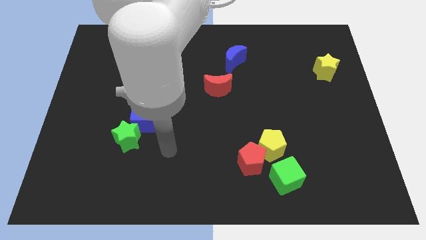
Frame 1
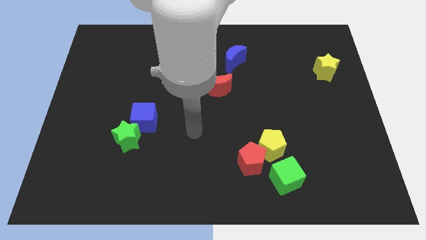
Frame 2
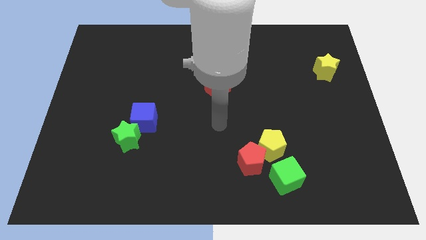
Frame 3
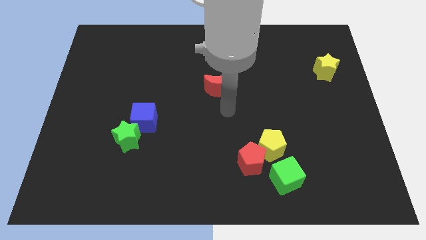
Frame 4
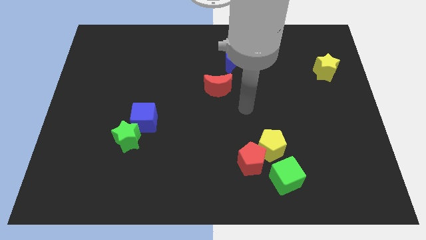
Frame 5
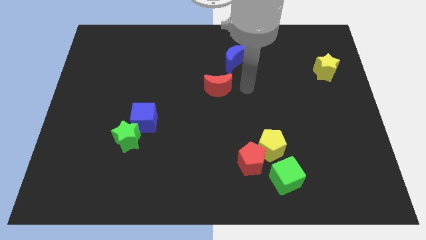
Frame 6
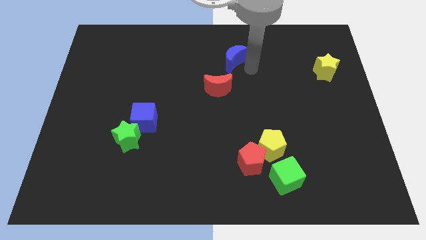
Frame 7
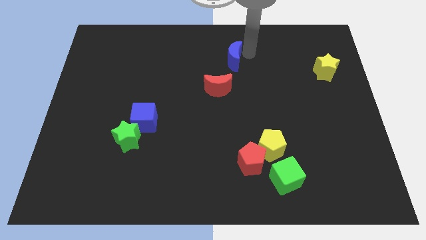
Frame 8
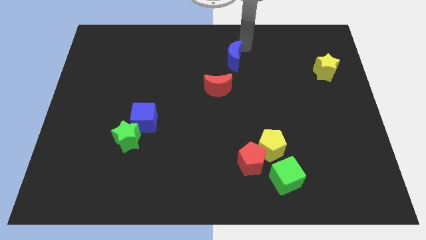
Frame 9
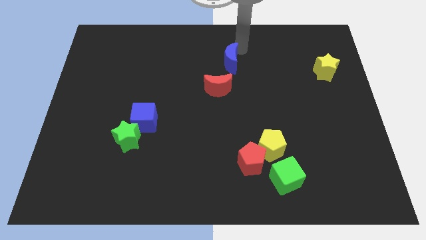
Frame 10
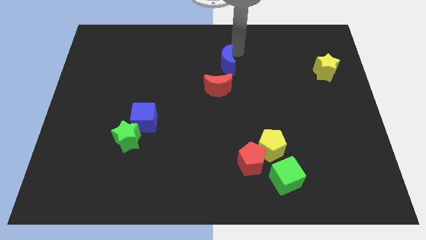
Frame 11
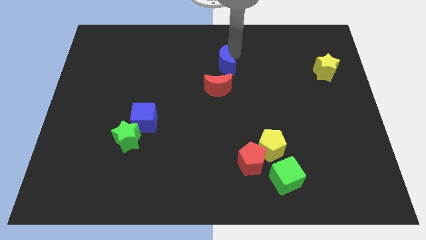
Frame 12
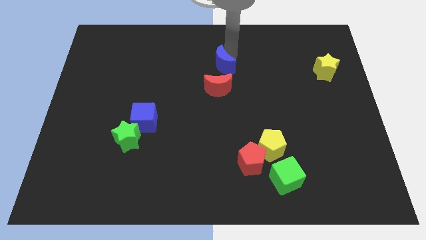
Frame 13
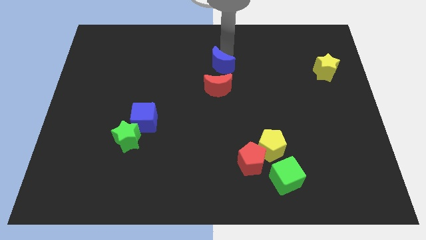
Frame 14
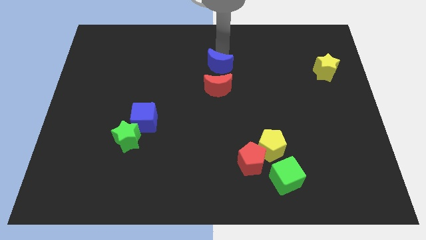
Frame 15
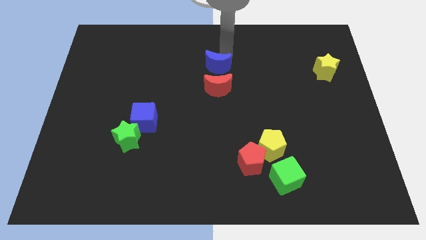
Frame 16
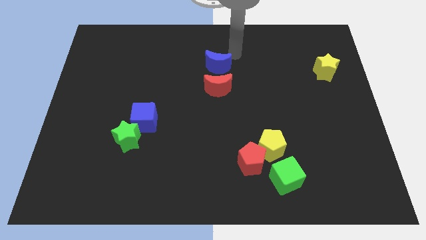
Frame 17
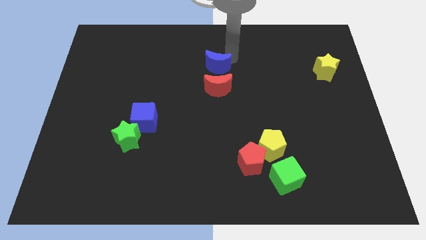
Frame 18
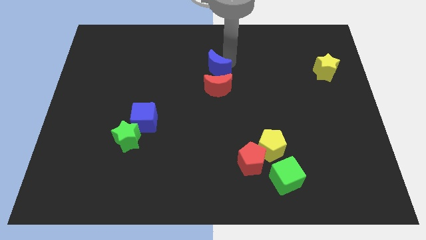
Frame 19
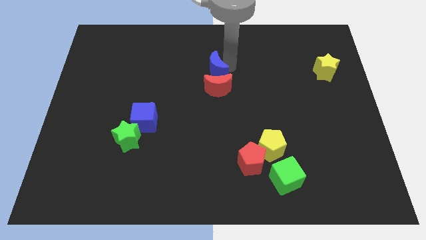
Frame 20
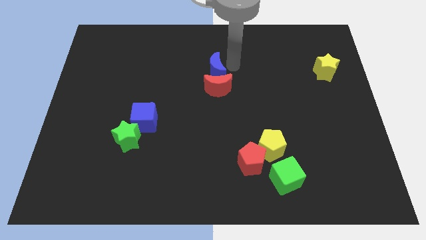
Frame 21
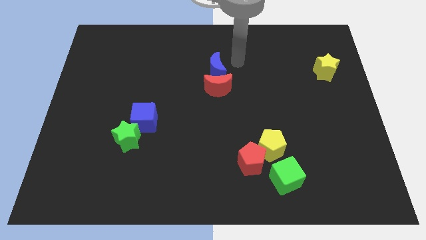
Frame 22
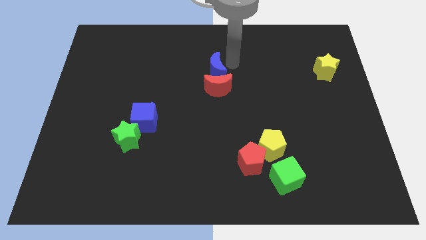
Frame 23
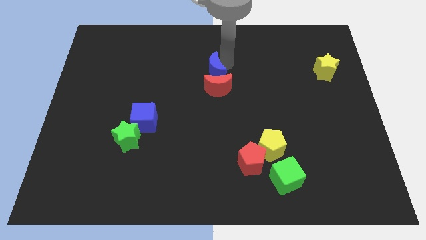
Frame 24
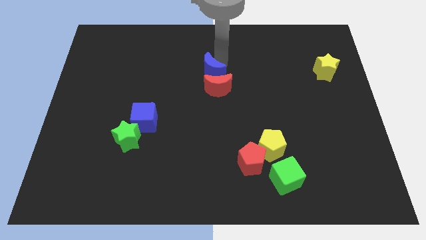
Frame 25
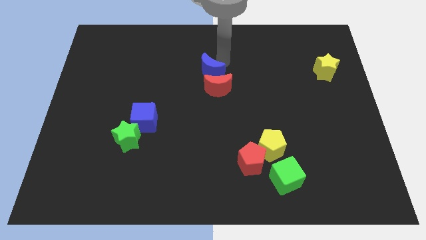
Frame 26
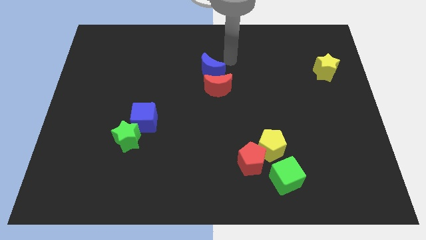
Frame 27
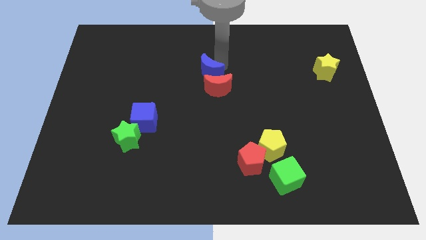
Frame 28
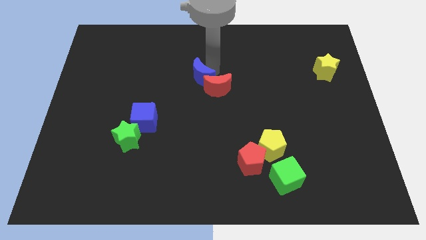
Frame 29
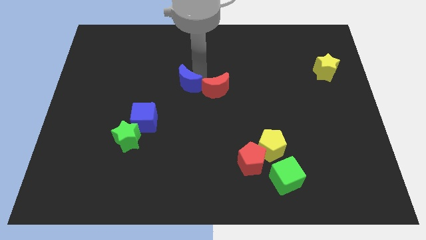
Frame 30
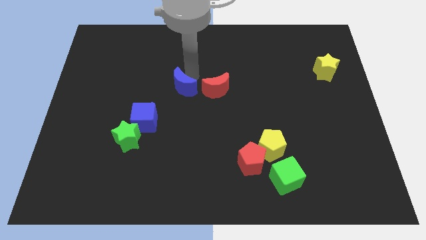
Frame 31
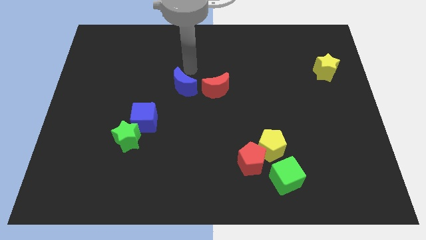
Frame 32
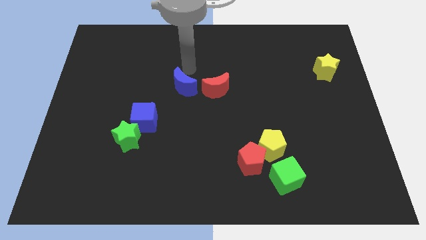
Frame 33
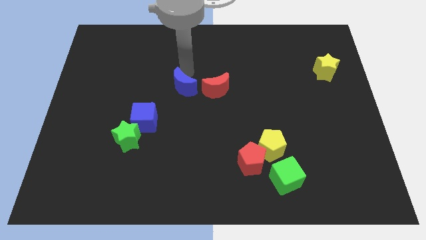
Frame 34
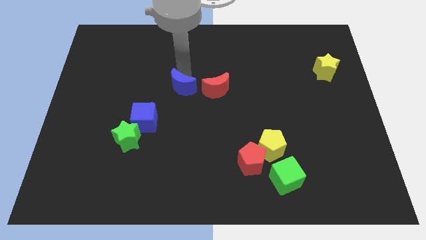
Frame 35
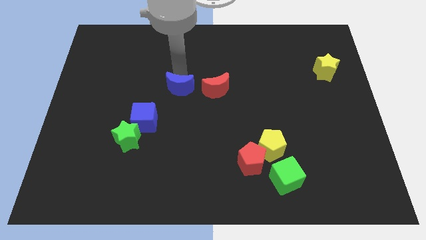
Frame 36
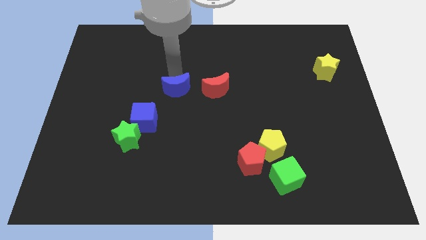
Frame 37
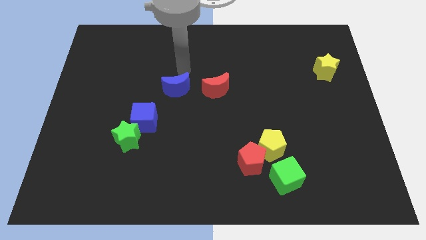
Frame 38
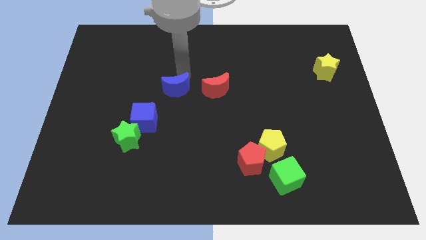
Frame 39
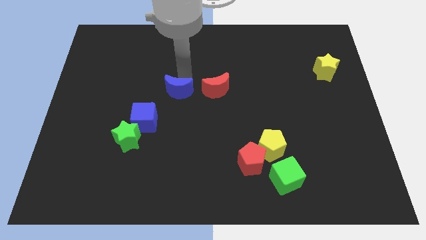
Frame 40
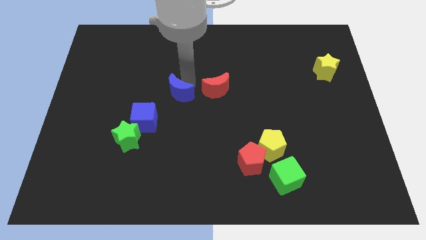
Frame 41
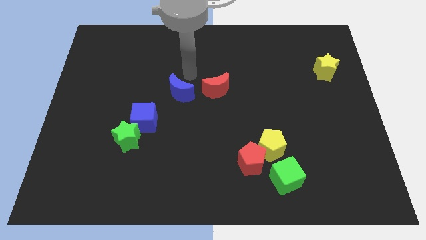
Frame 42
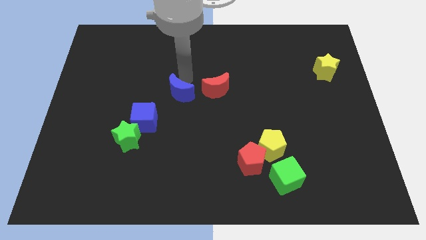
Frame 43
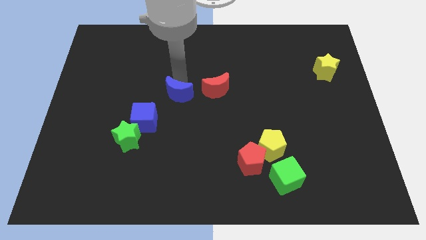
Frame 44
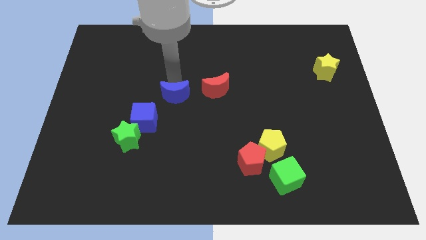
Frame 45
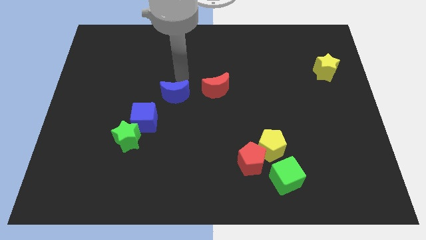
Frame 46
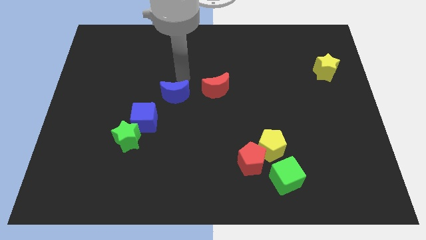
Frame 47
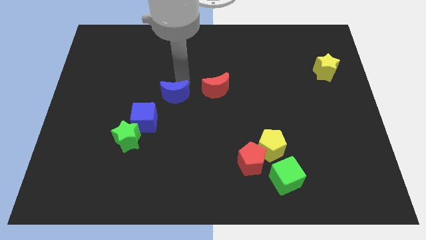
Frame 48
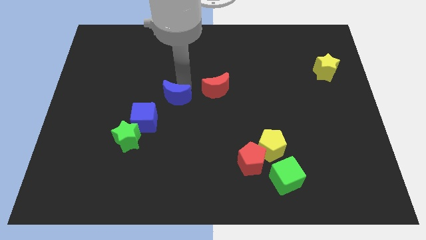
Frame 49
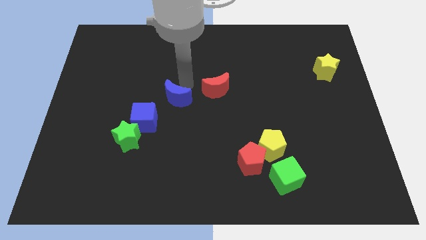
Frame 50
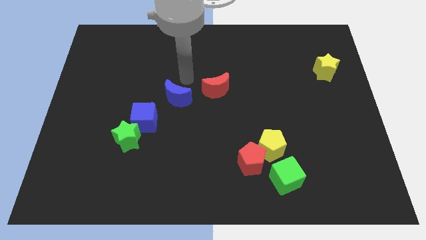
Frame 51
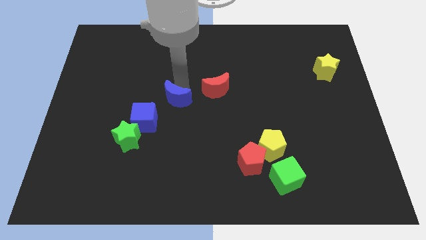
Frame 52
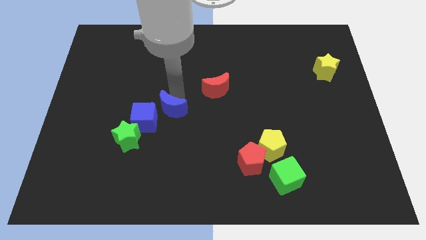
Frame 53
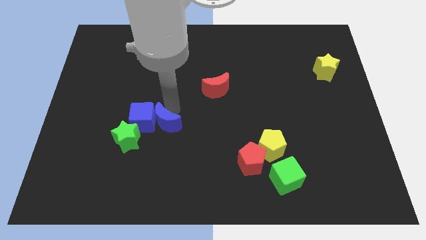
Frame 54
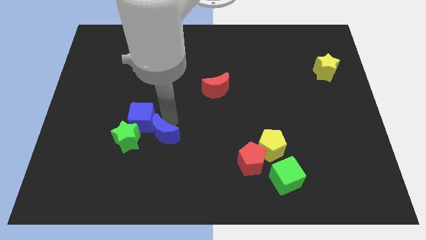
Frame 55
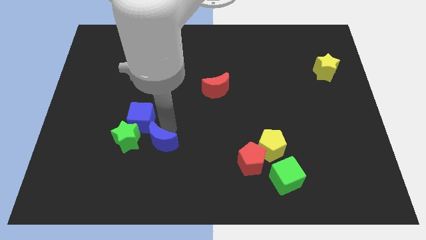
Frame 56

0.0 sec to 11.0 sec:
put the blue moon to the bottom side of the blue cube

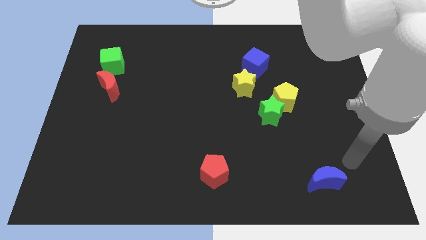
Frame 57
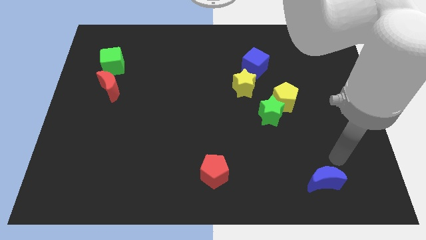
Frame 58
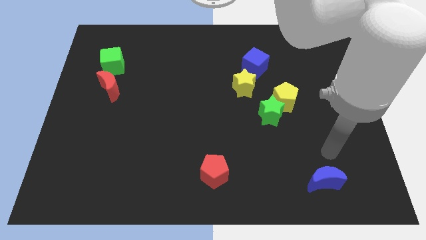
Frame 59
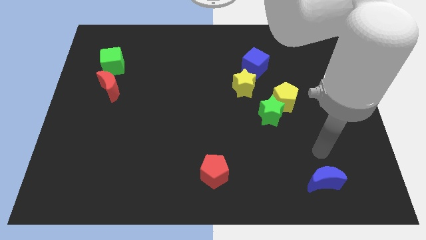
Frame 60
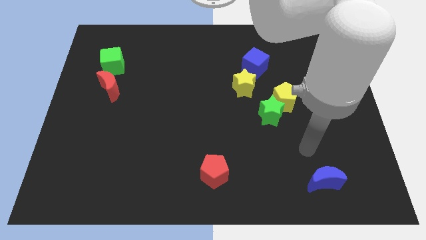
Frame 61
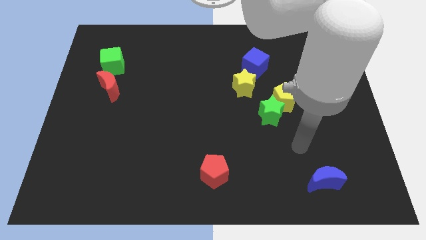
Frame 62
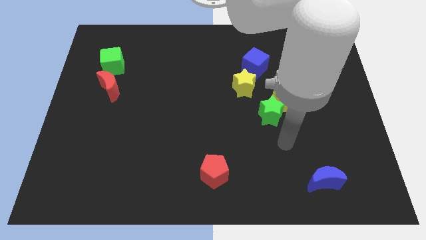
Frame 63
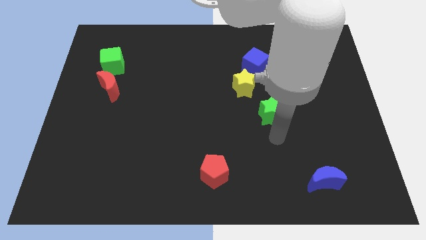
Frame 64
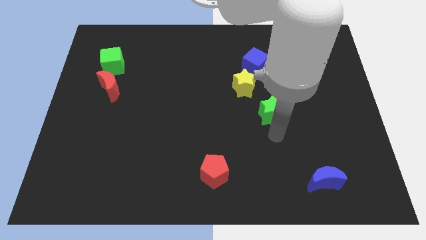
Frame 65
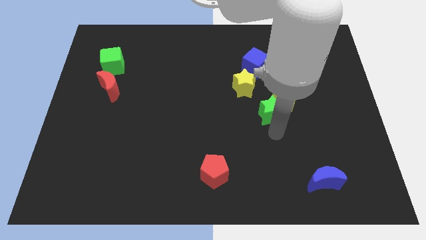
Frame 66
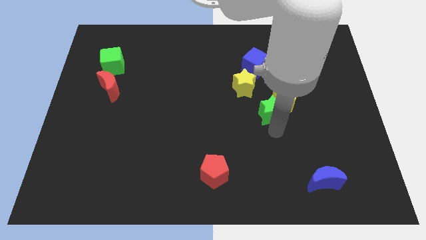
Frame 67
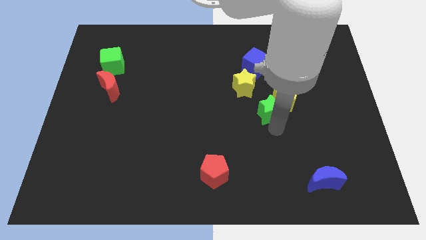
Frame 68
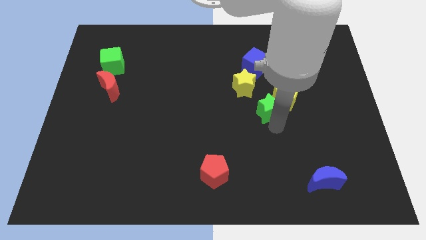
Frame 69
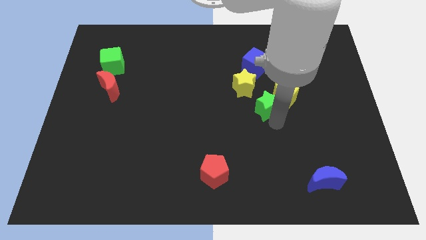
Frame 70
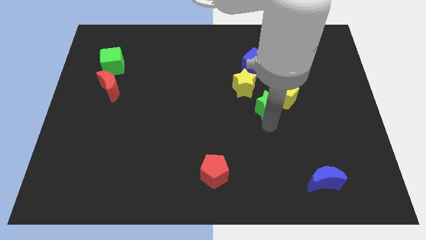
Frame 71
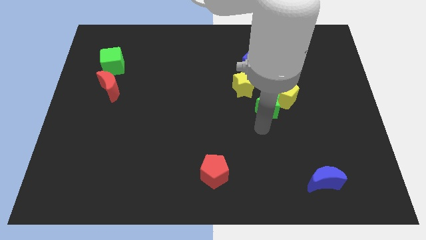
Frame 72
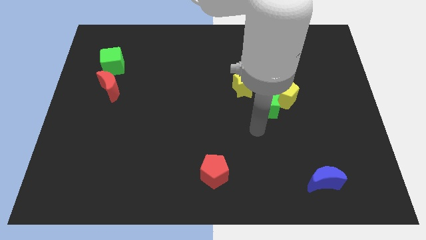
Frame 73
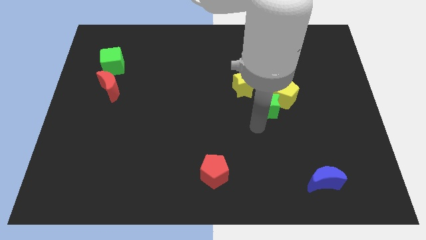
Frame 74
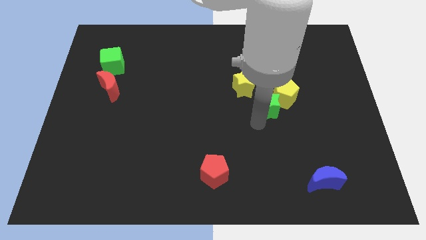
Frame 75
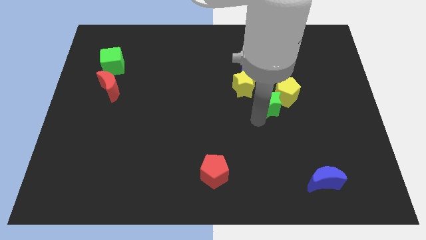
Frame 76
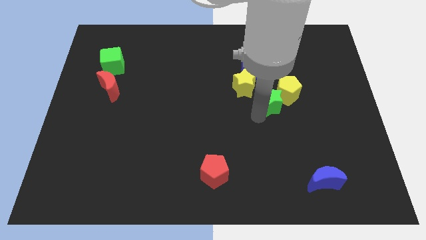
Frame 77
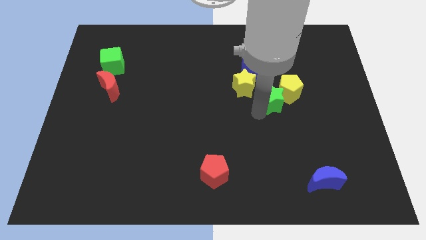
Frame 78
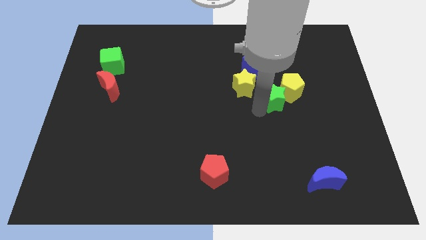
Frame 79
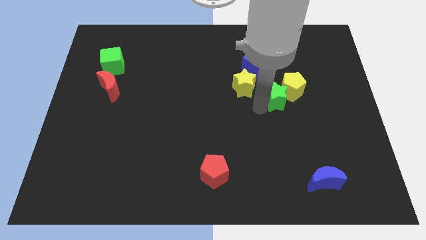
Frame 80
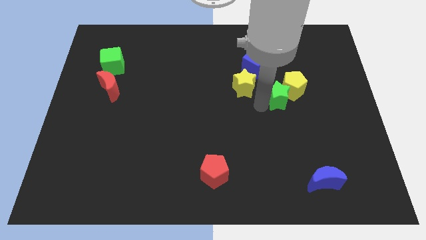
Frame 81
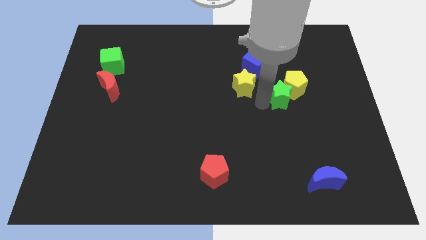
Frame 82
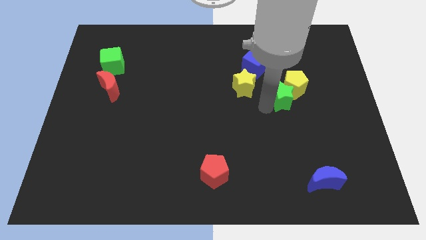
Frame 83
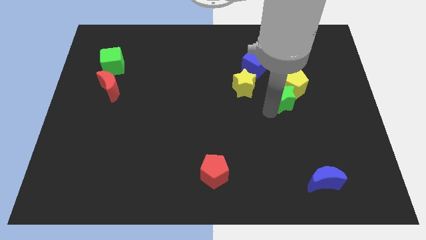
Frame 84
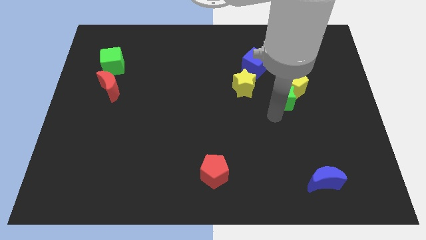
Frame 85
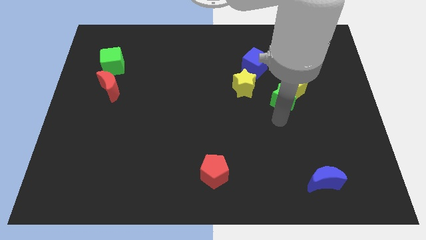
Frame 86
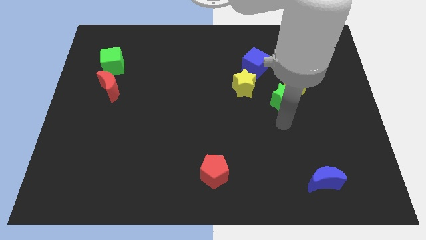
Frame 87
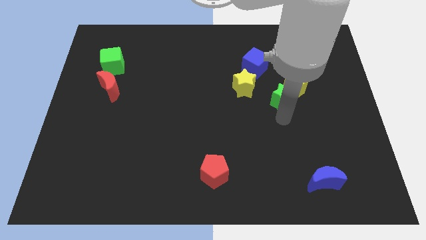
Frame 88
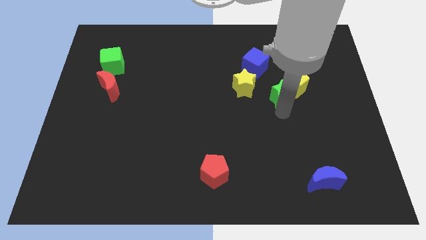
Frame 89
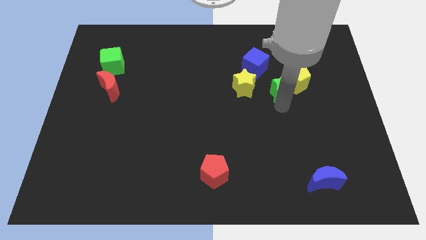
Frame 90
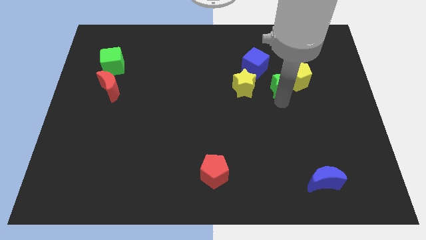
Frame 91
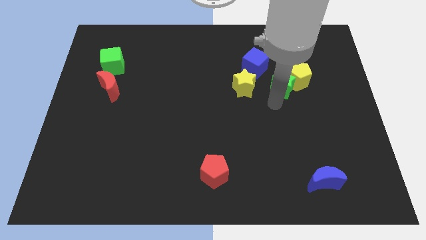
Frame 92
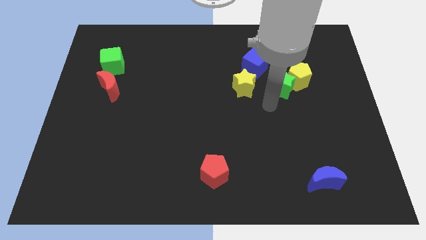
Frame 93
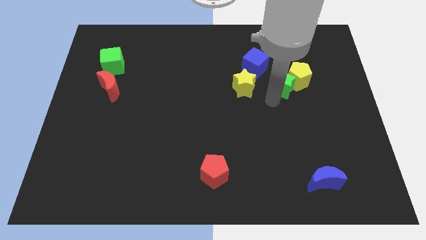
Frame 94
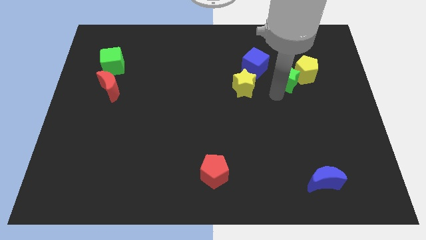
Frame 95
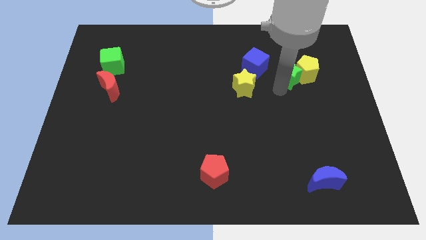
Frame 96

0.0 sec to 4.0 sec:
move the green star to the right side of the blue cube
